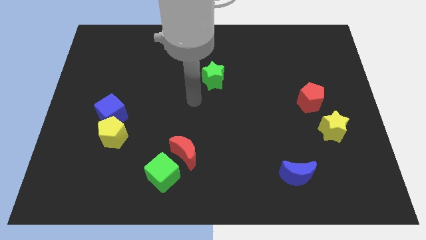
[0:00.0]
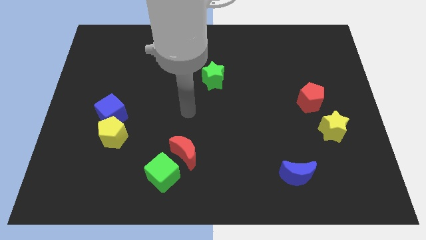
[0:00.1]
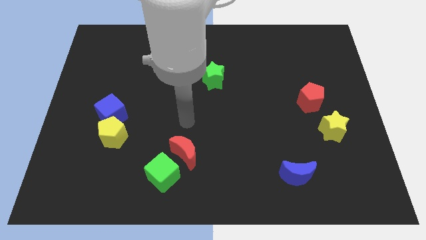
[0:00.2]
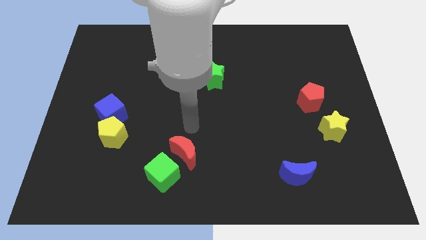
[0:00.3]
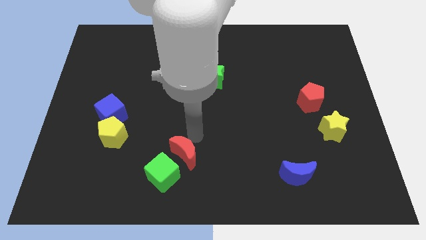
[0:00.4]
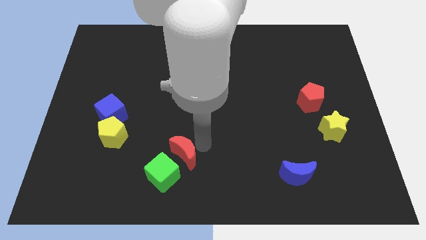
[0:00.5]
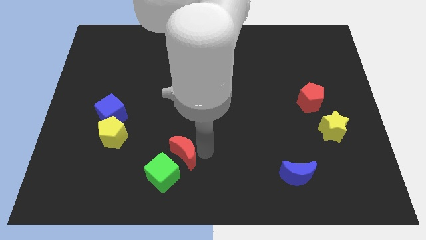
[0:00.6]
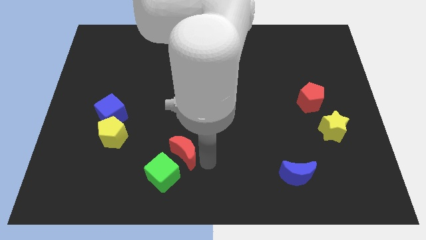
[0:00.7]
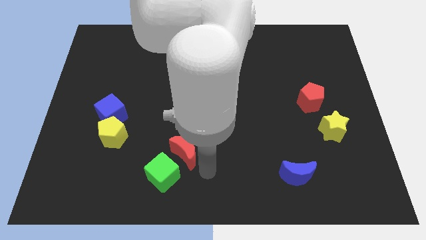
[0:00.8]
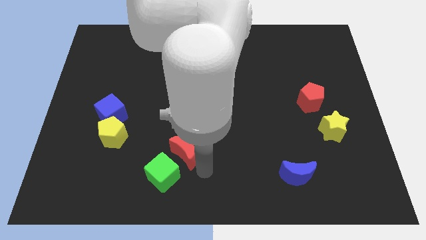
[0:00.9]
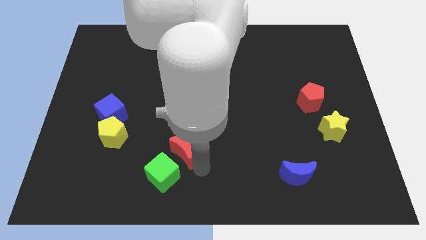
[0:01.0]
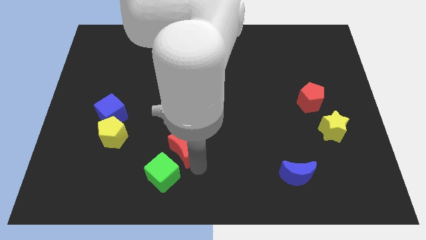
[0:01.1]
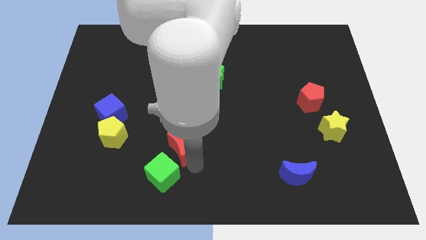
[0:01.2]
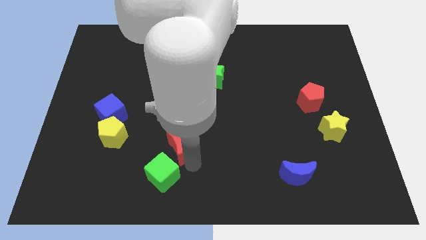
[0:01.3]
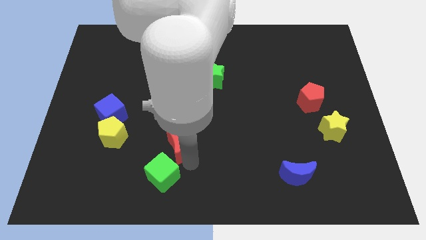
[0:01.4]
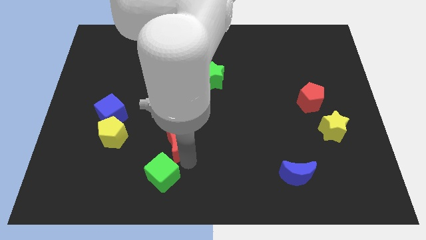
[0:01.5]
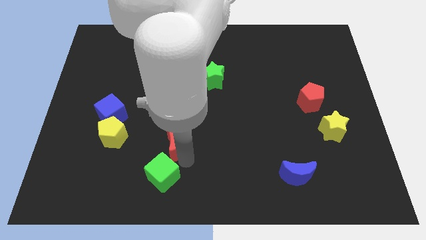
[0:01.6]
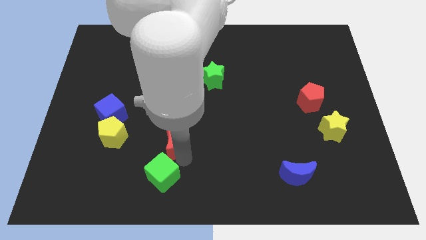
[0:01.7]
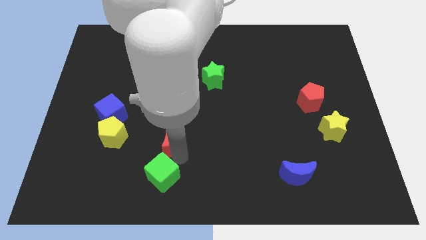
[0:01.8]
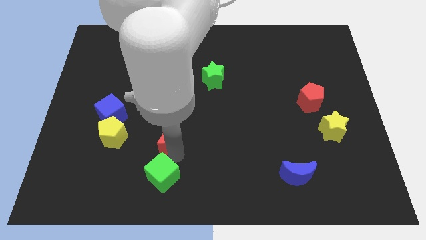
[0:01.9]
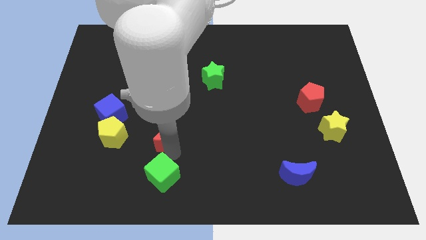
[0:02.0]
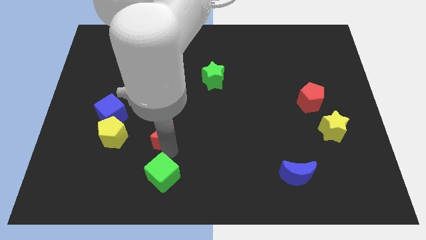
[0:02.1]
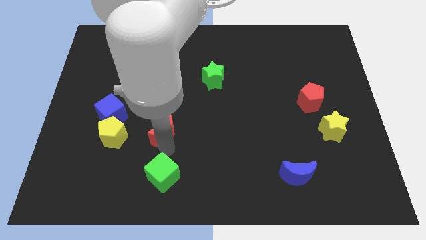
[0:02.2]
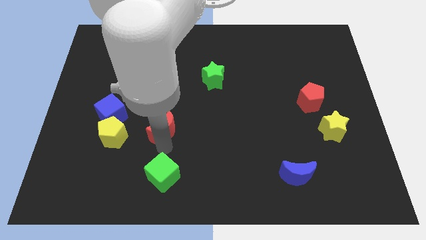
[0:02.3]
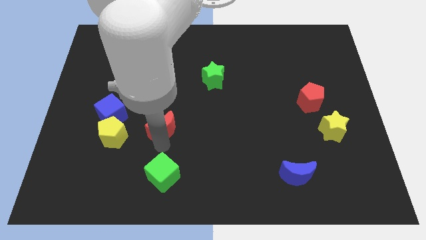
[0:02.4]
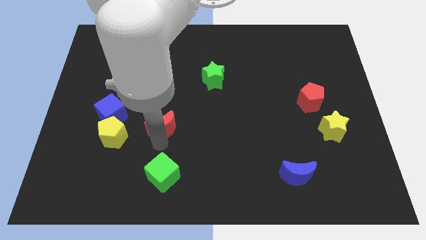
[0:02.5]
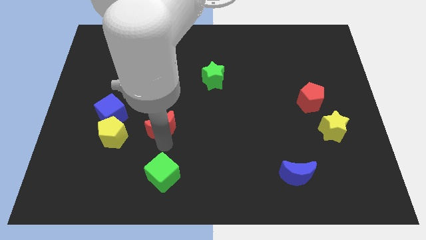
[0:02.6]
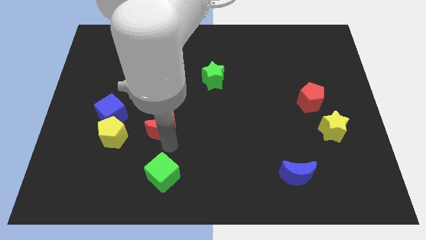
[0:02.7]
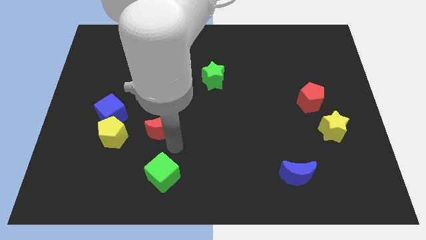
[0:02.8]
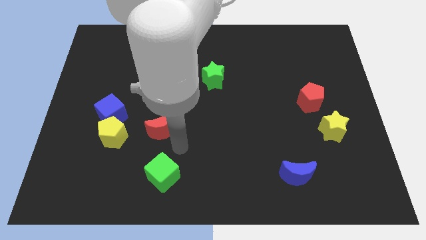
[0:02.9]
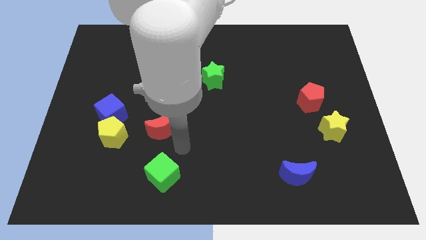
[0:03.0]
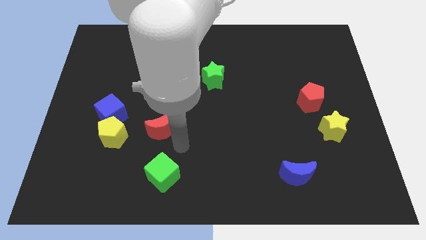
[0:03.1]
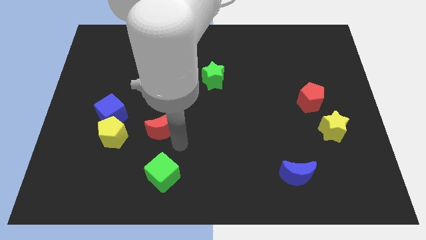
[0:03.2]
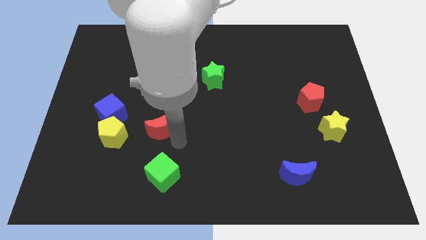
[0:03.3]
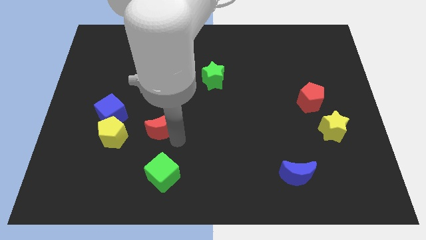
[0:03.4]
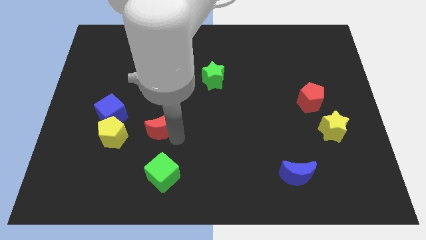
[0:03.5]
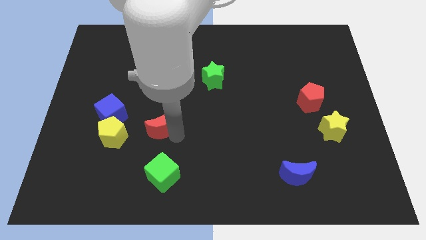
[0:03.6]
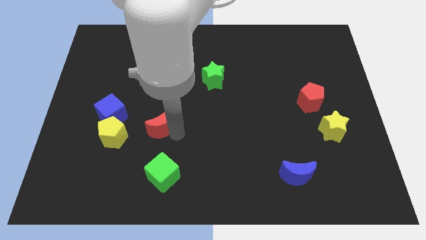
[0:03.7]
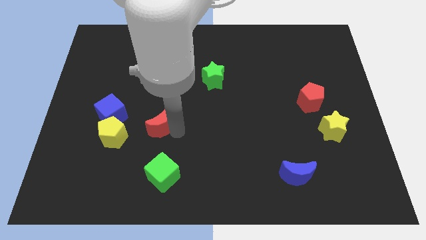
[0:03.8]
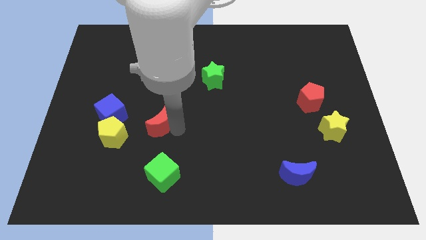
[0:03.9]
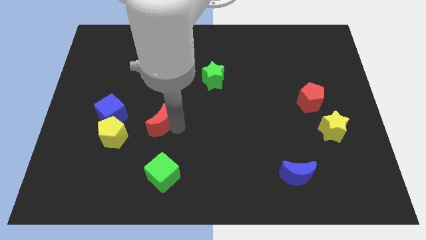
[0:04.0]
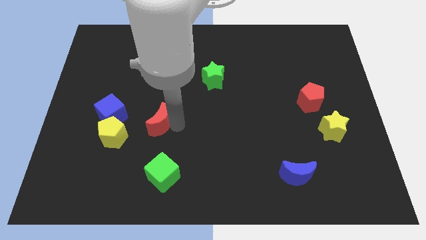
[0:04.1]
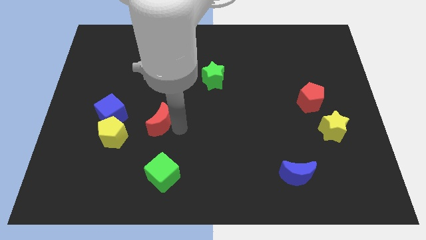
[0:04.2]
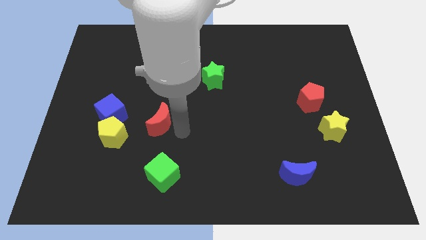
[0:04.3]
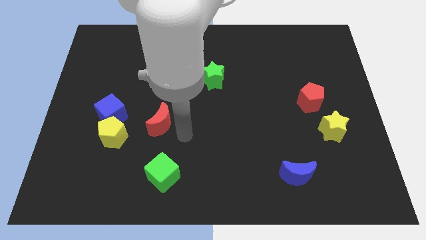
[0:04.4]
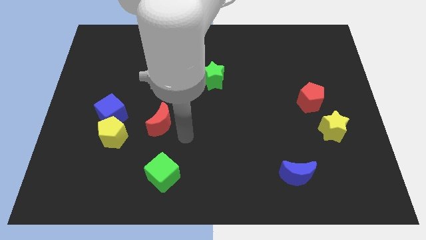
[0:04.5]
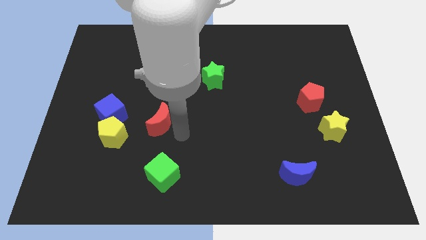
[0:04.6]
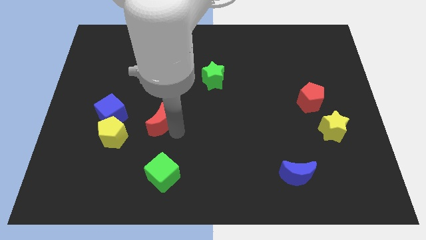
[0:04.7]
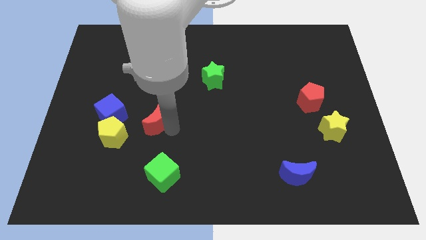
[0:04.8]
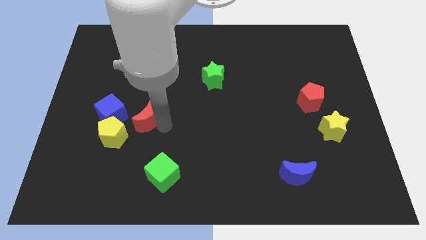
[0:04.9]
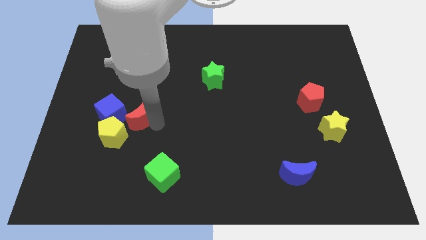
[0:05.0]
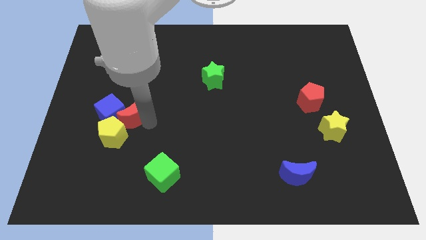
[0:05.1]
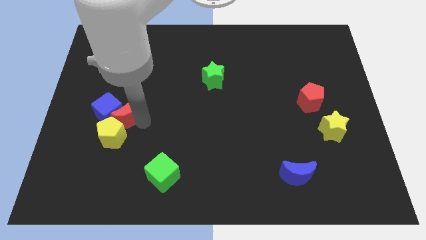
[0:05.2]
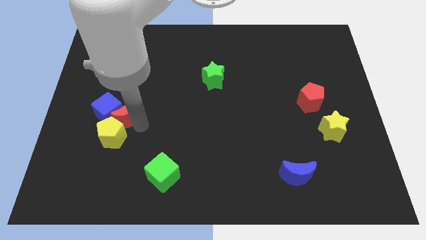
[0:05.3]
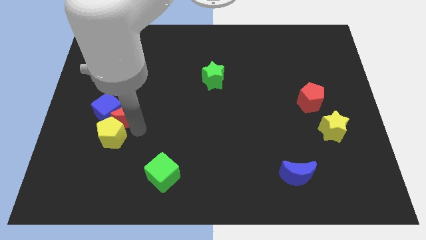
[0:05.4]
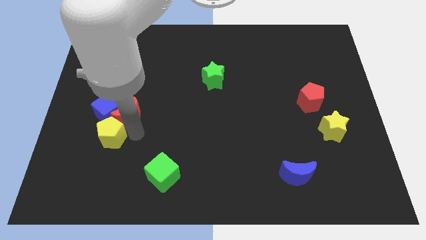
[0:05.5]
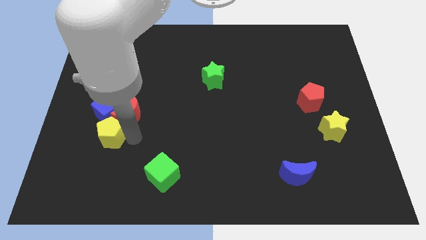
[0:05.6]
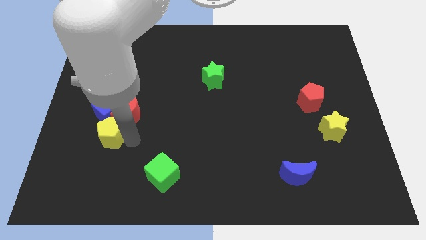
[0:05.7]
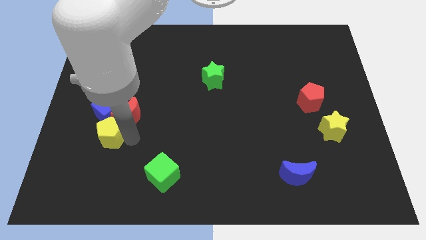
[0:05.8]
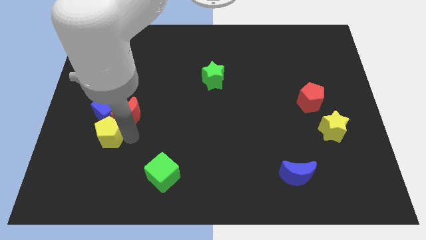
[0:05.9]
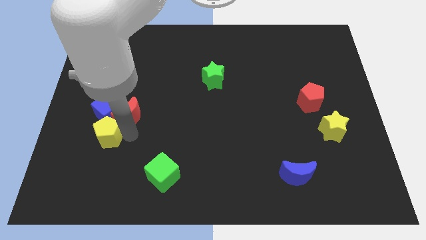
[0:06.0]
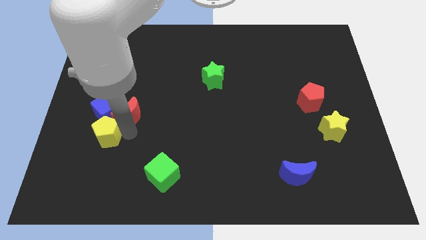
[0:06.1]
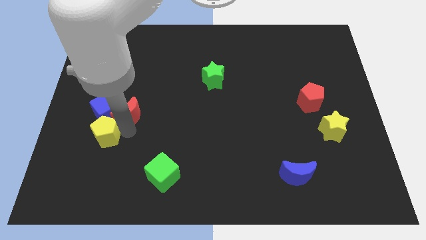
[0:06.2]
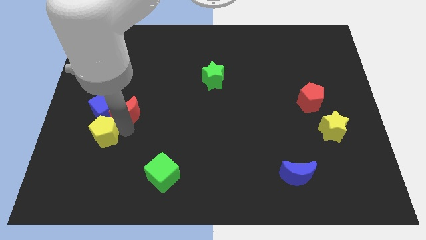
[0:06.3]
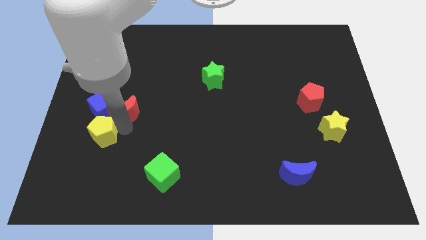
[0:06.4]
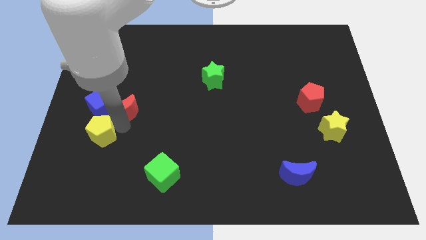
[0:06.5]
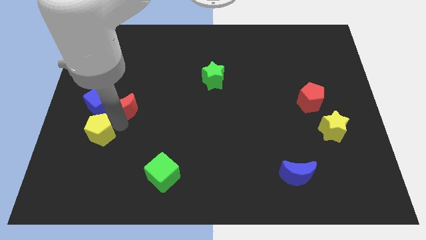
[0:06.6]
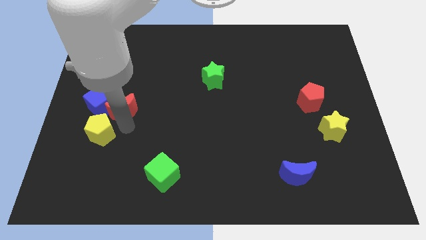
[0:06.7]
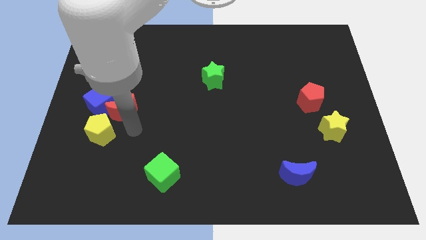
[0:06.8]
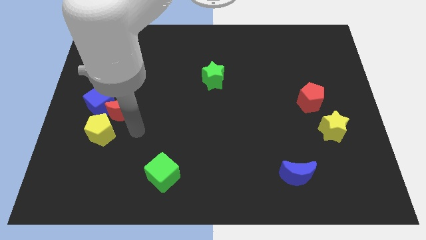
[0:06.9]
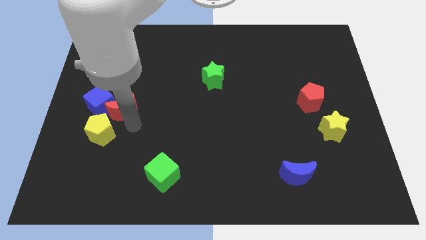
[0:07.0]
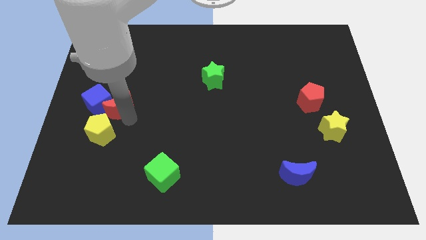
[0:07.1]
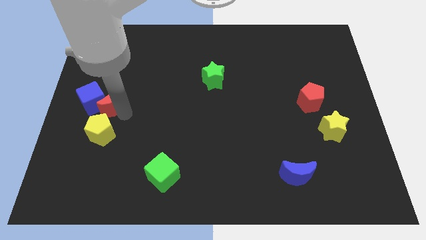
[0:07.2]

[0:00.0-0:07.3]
push the red moon up and left

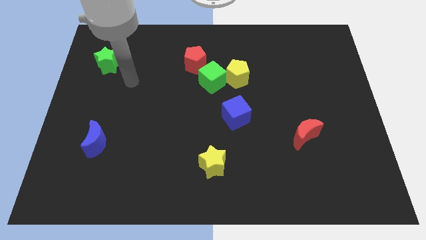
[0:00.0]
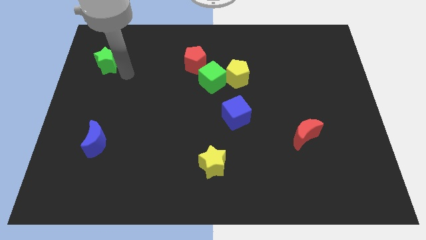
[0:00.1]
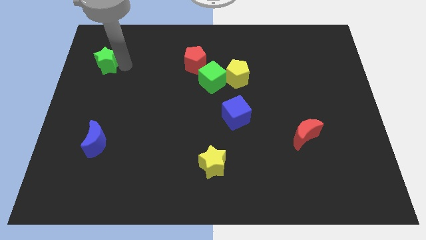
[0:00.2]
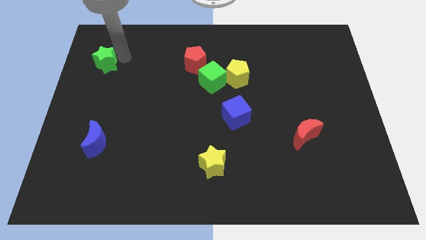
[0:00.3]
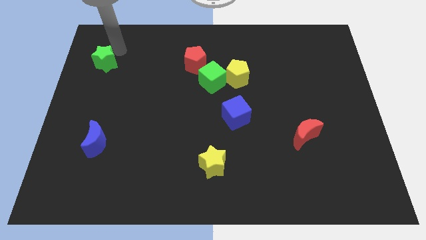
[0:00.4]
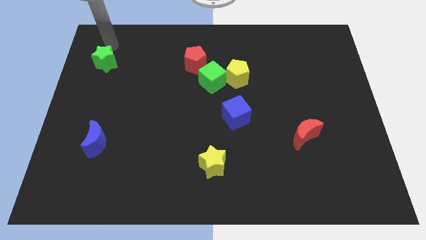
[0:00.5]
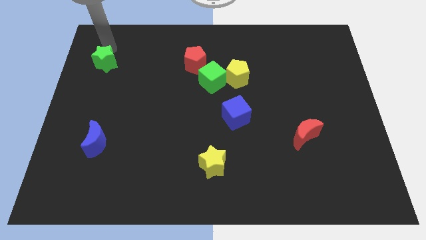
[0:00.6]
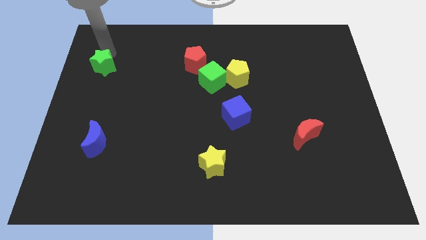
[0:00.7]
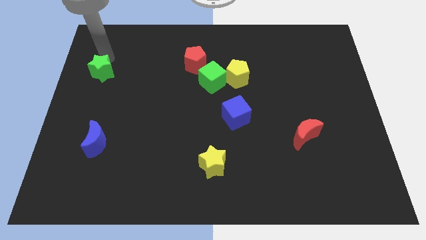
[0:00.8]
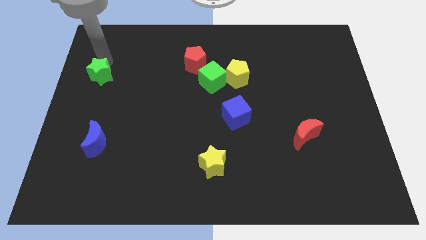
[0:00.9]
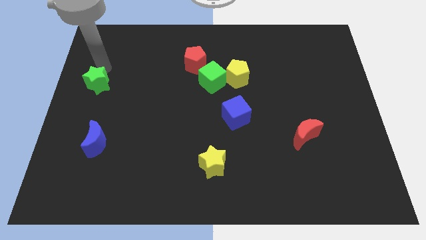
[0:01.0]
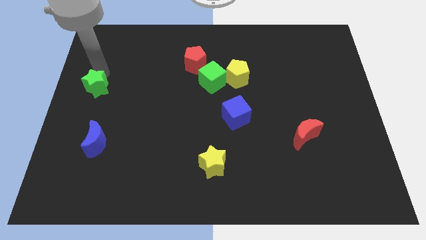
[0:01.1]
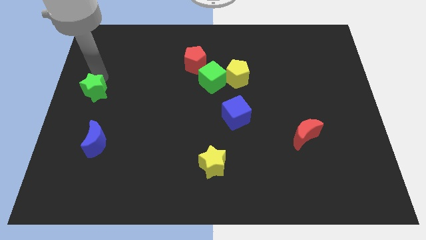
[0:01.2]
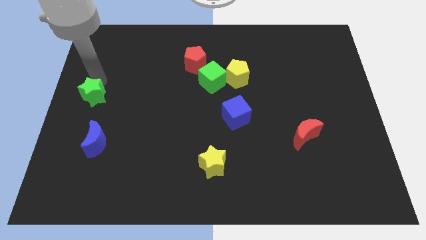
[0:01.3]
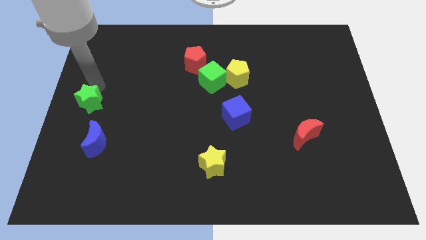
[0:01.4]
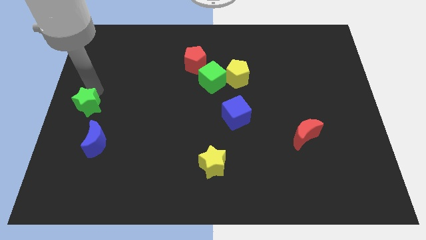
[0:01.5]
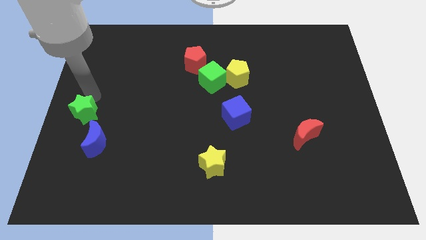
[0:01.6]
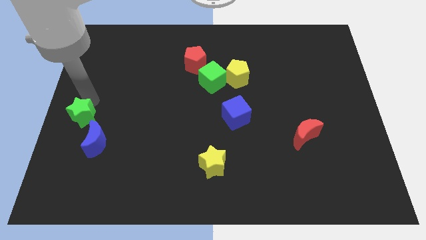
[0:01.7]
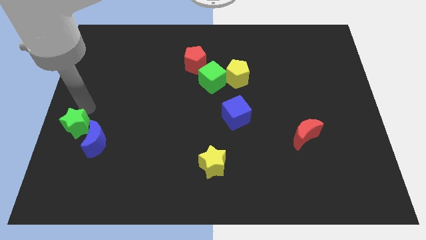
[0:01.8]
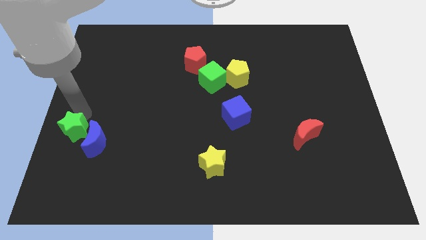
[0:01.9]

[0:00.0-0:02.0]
push the green star down
